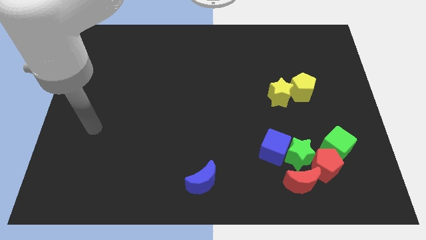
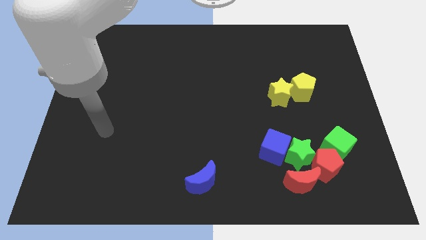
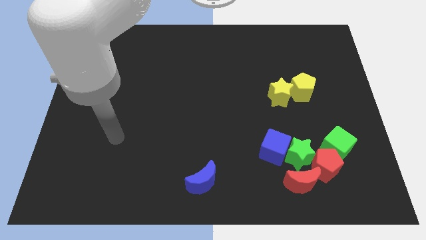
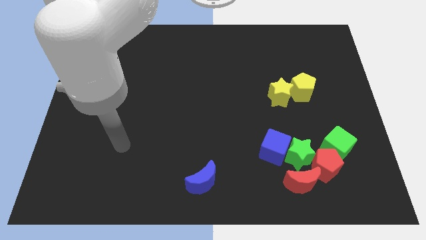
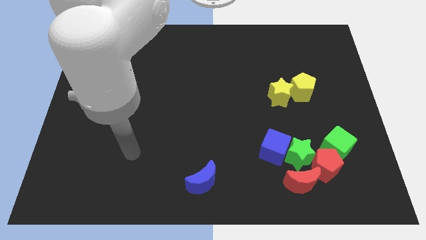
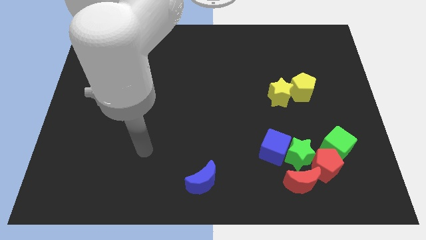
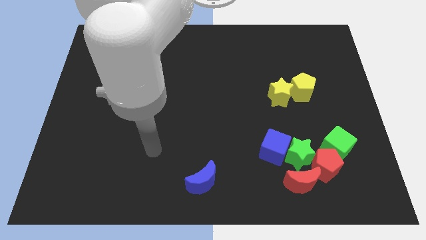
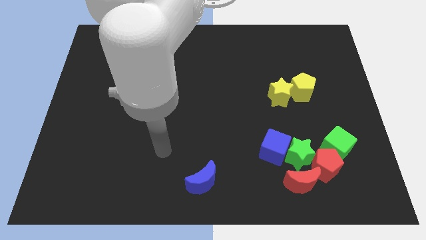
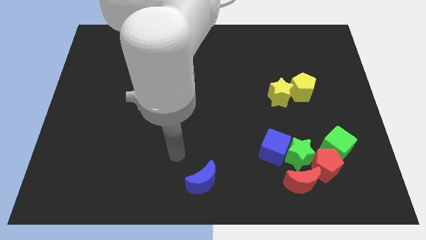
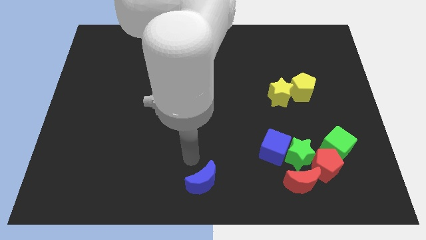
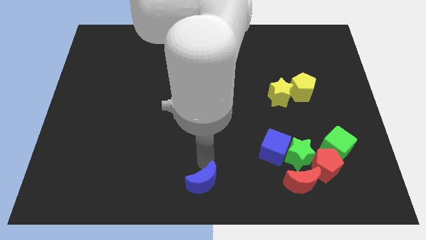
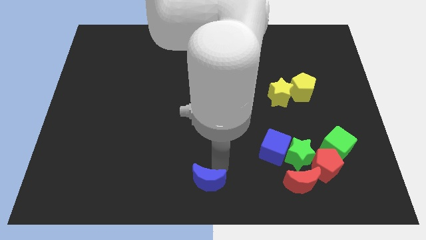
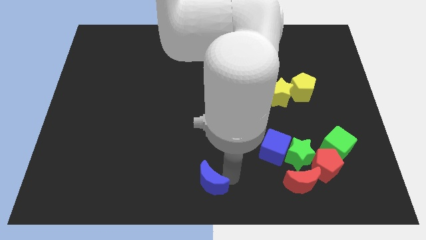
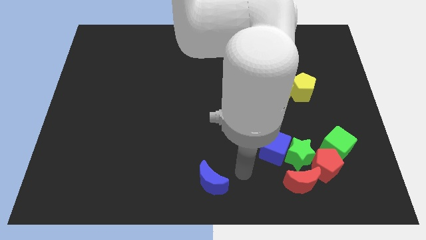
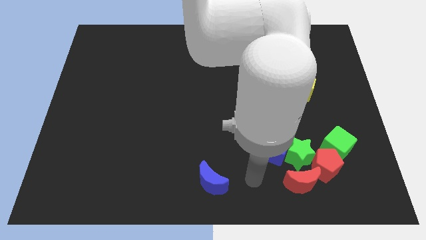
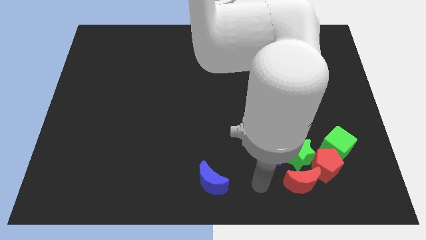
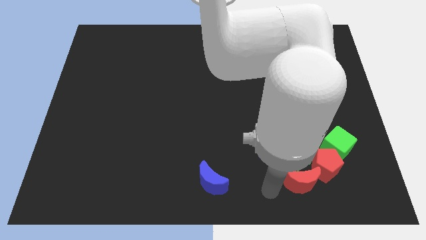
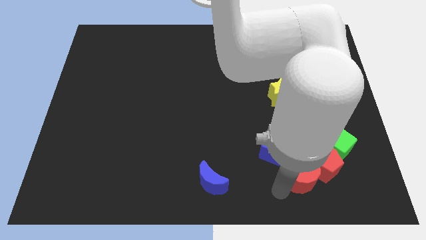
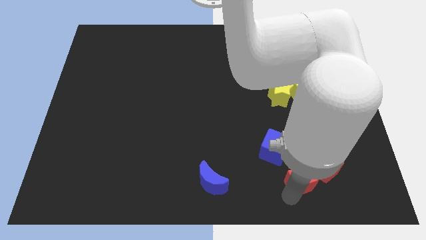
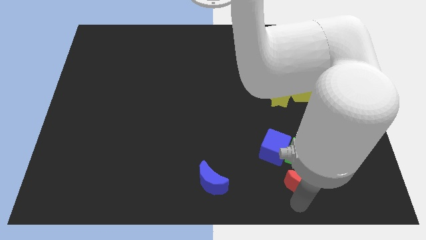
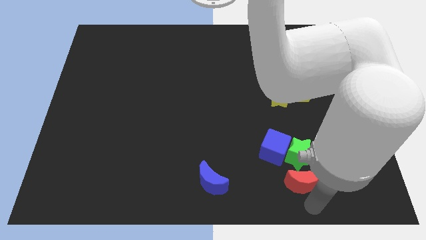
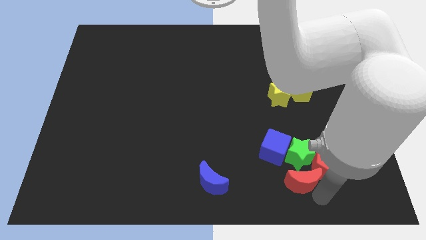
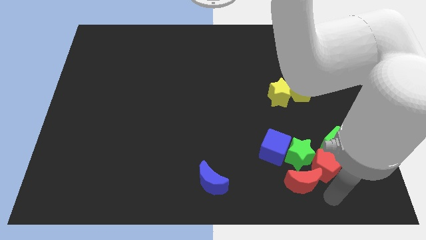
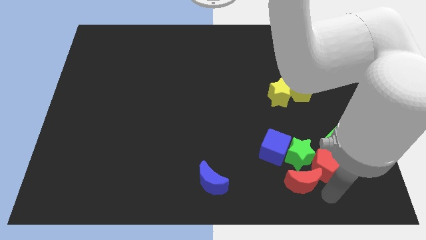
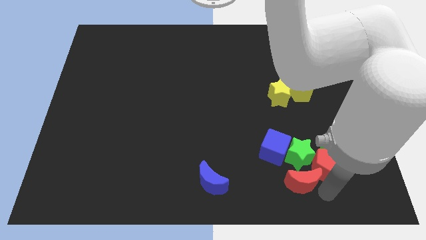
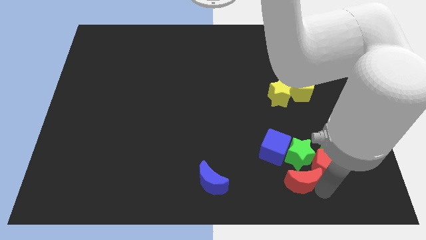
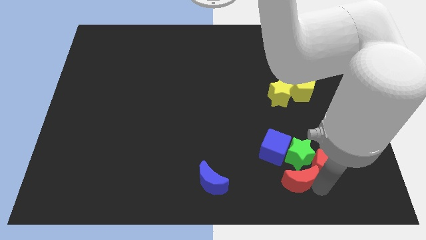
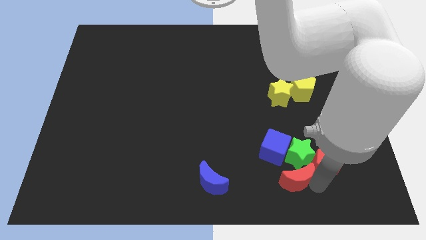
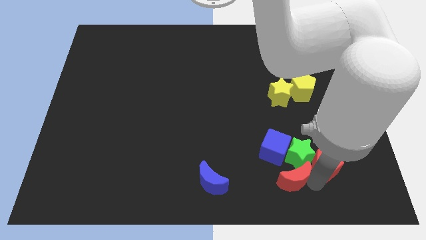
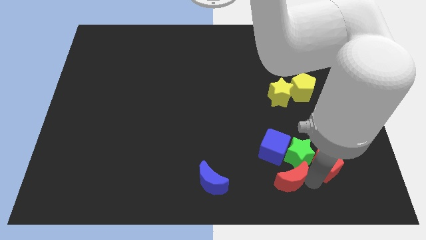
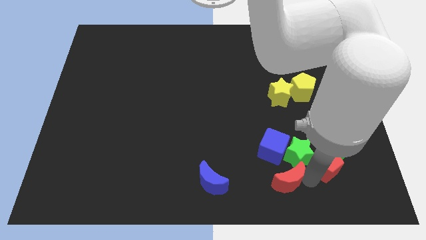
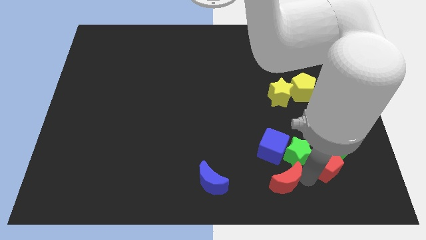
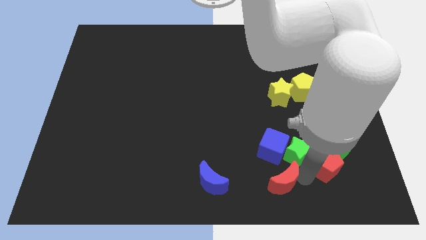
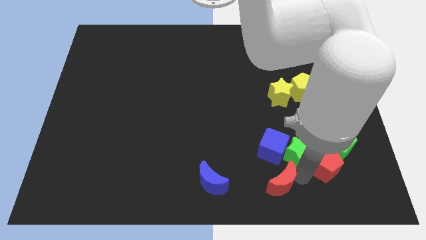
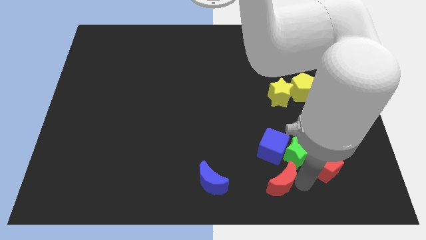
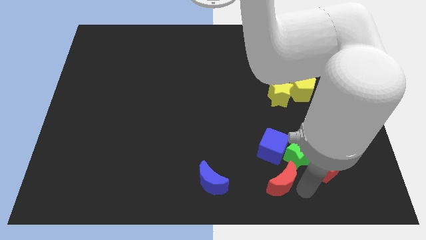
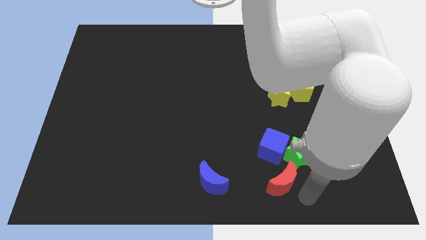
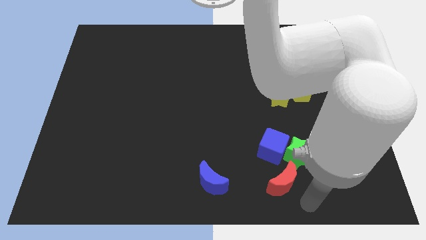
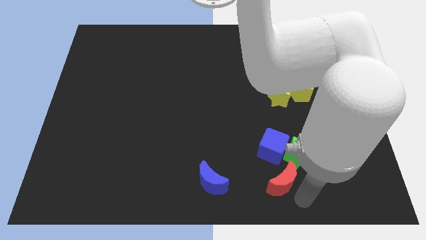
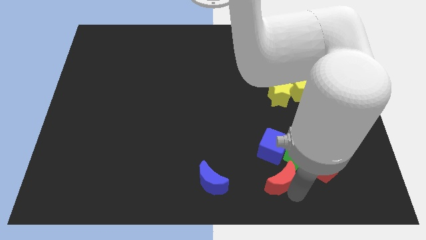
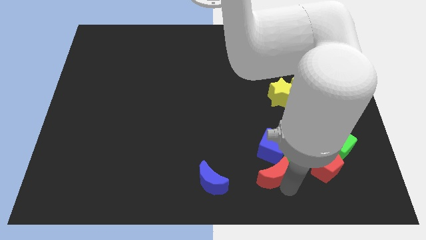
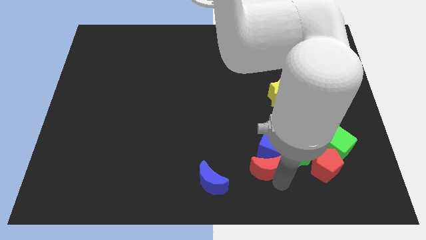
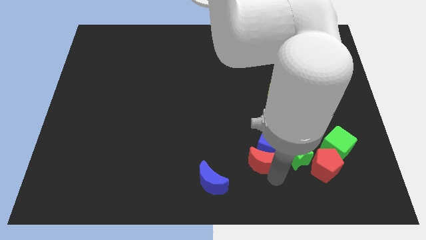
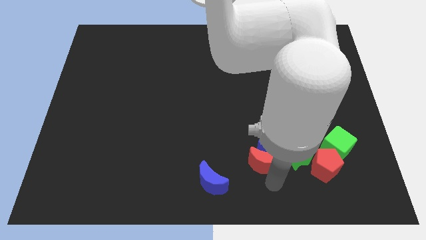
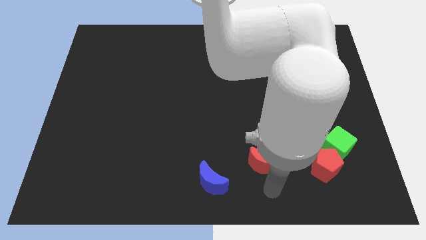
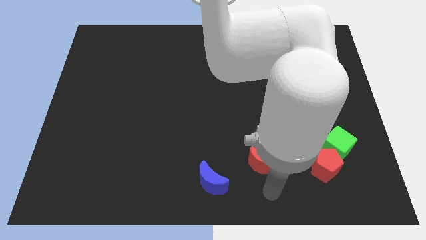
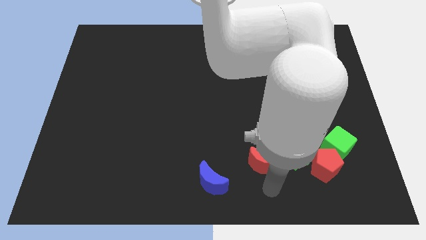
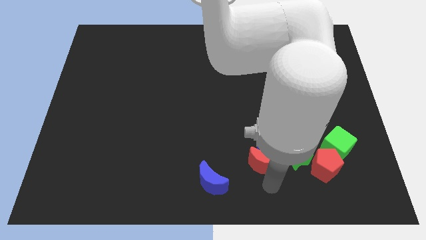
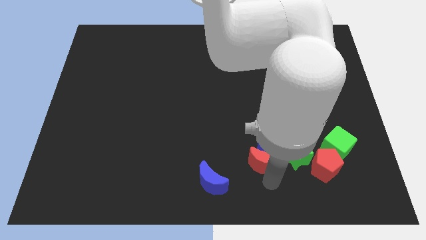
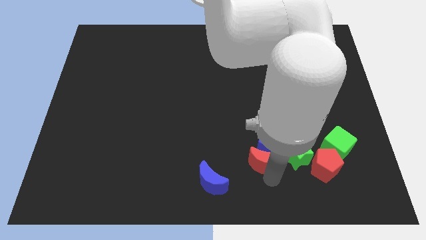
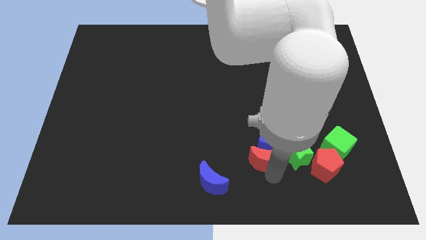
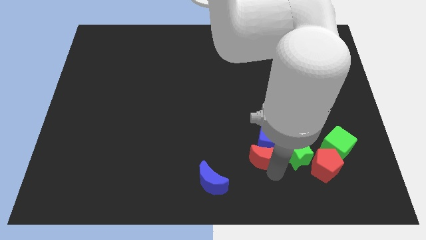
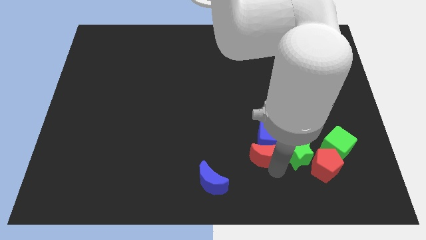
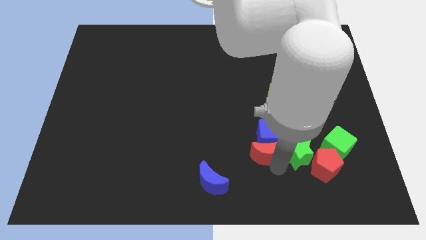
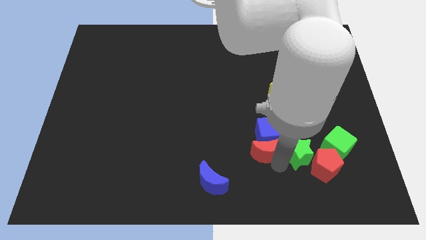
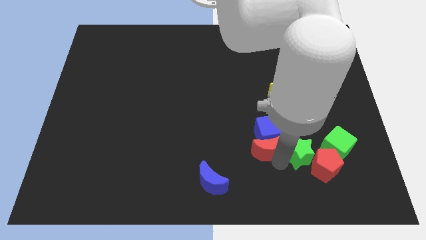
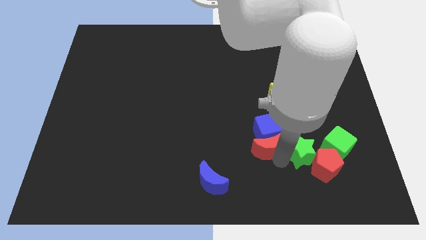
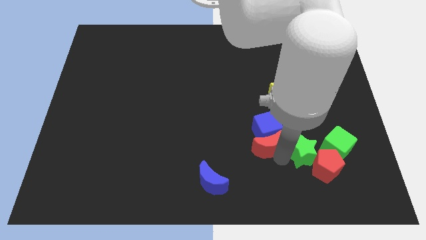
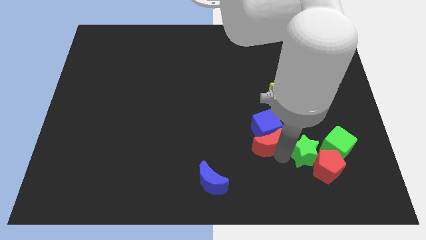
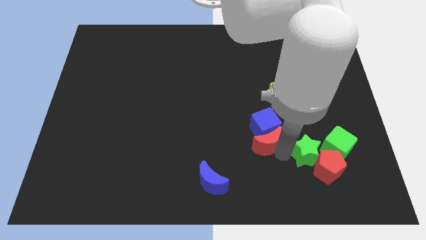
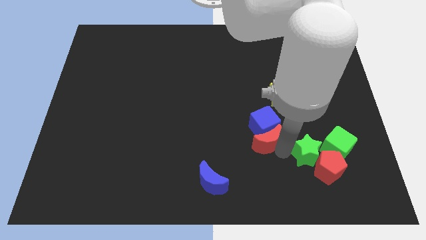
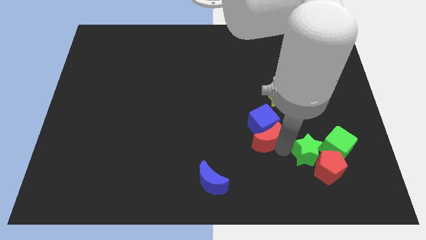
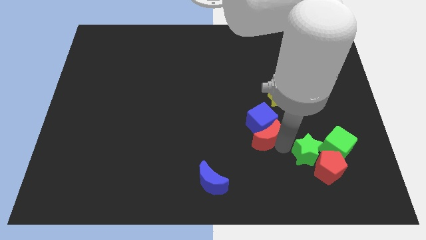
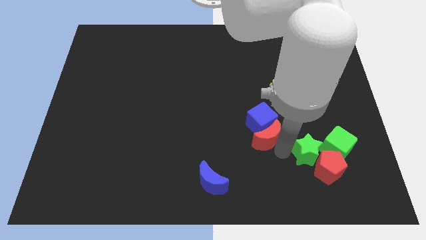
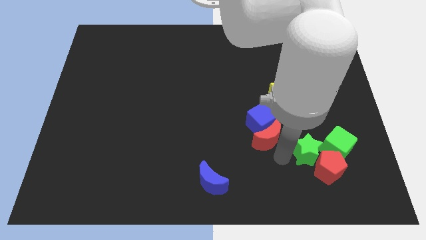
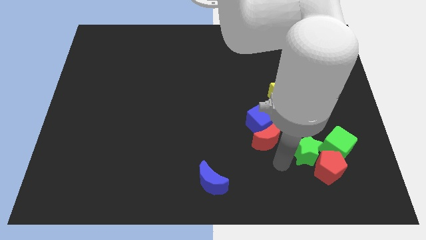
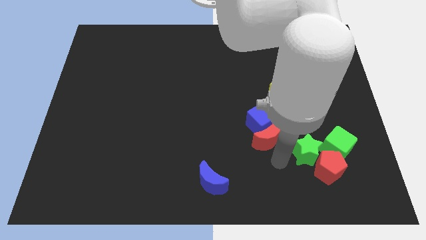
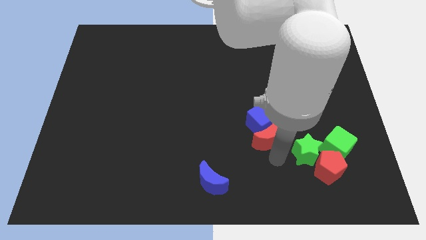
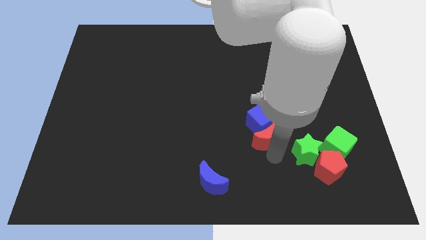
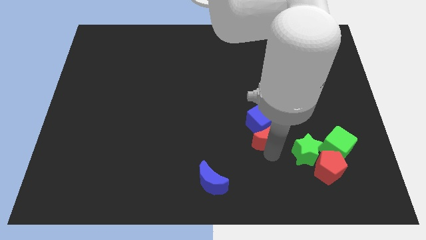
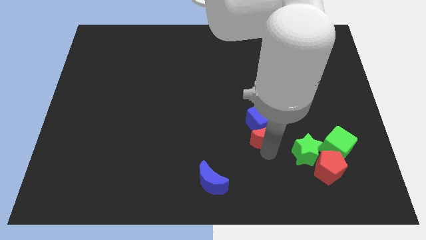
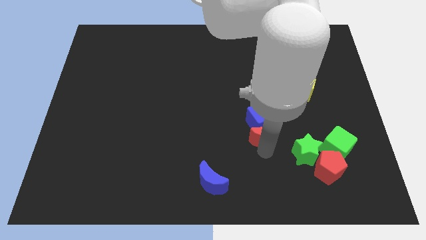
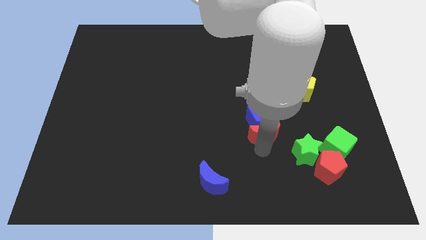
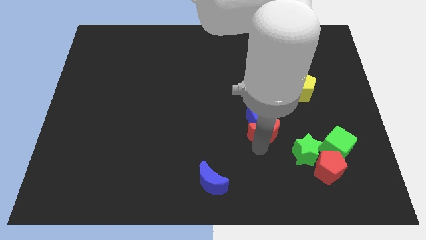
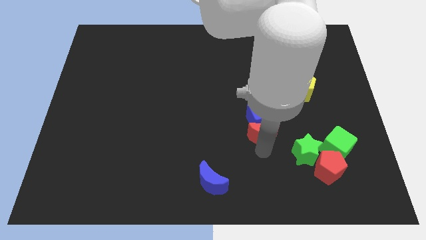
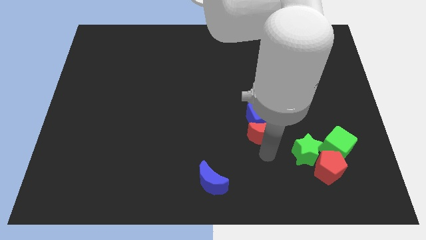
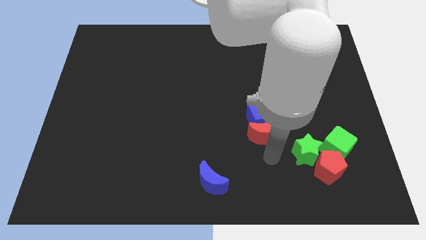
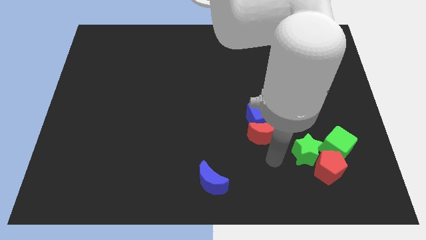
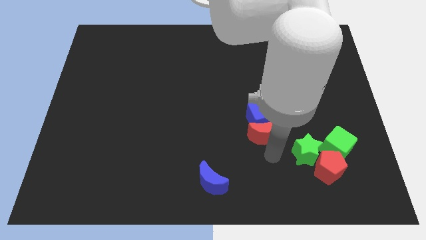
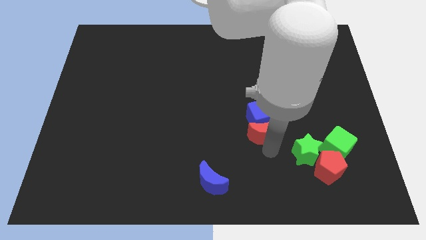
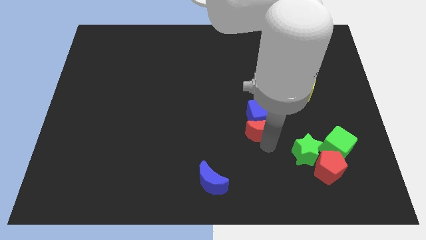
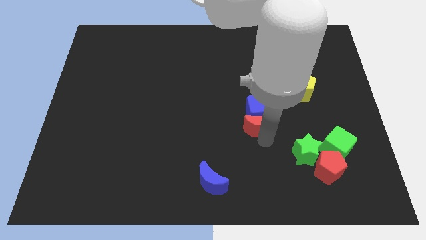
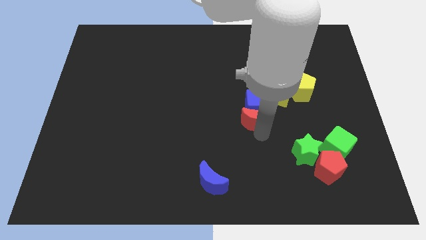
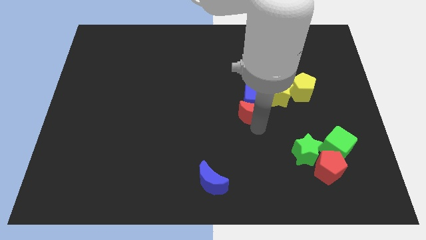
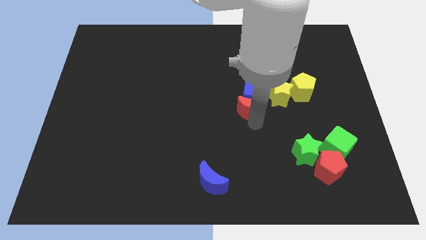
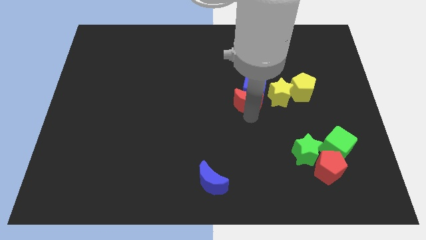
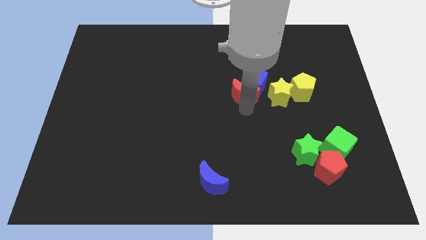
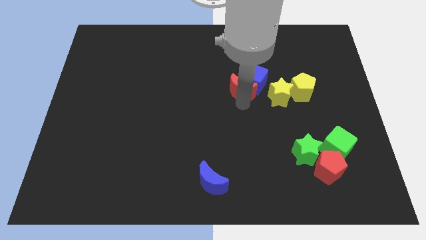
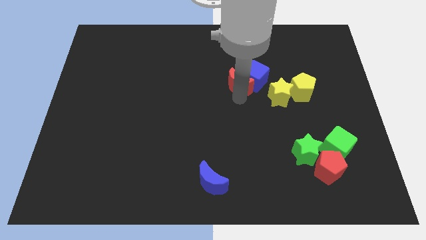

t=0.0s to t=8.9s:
move the red moon to the top left of the yellow star
